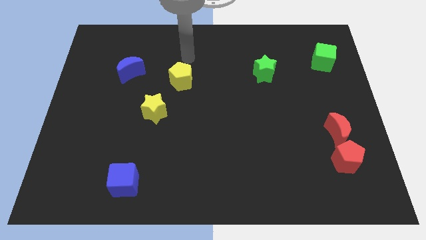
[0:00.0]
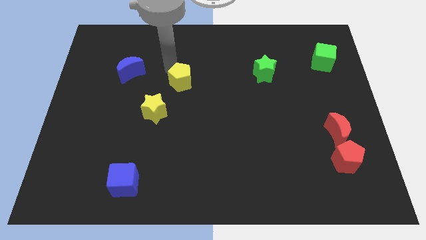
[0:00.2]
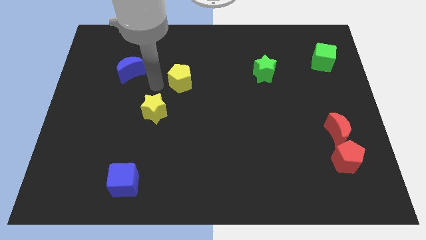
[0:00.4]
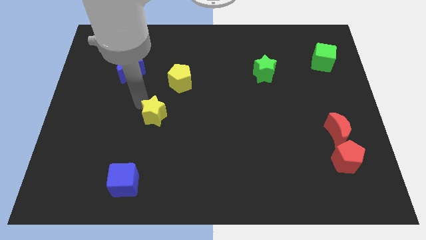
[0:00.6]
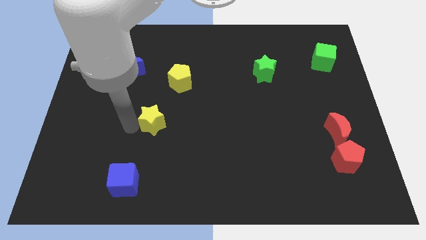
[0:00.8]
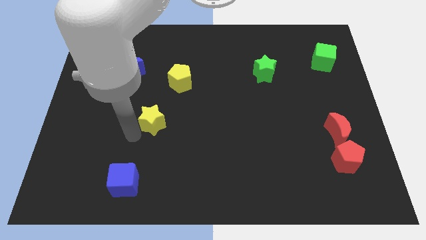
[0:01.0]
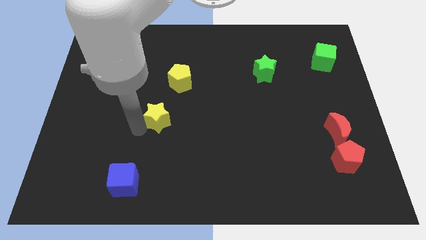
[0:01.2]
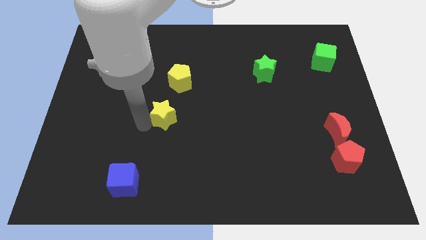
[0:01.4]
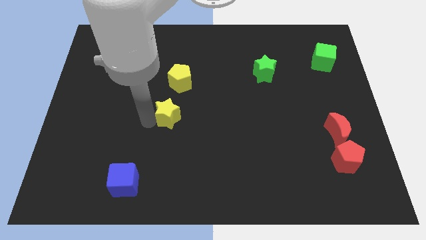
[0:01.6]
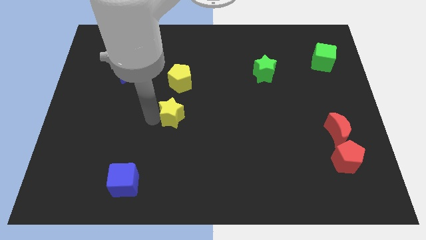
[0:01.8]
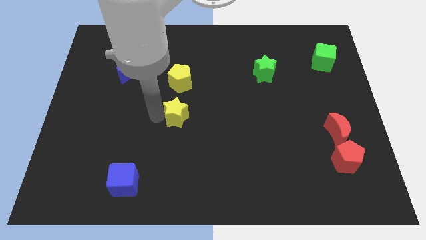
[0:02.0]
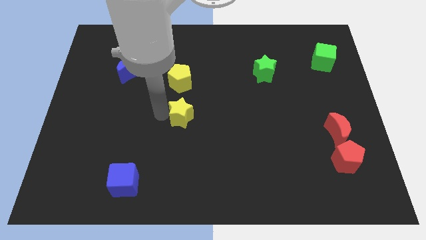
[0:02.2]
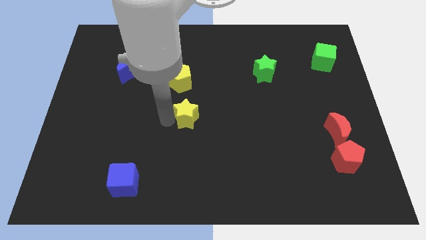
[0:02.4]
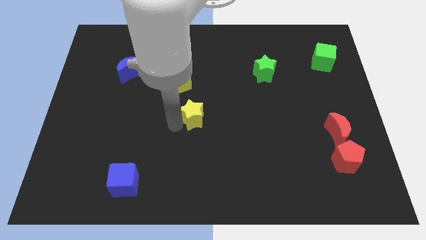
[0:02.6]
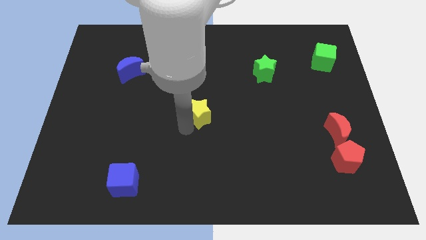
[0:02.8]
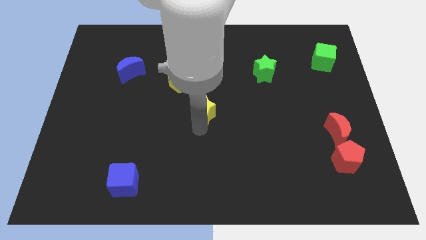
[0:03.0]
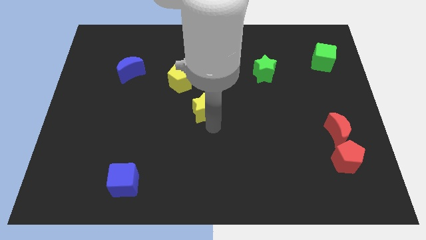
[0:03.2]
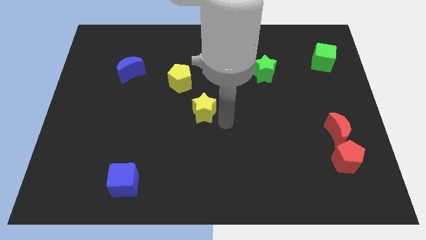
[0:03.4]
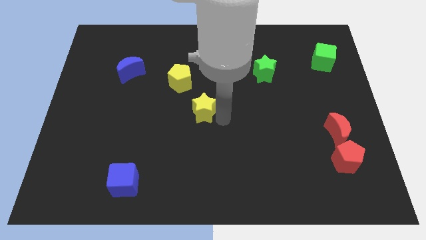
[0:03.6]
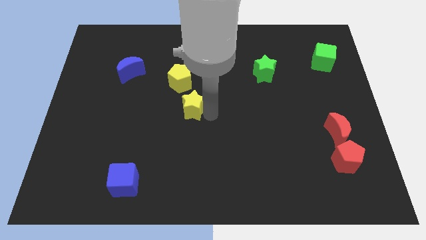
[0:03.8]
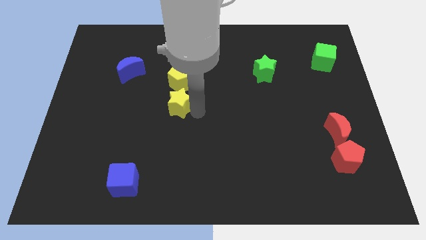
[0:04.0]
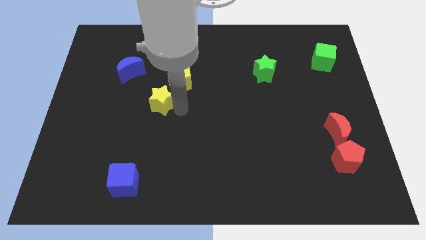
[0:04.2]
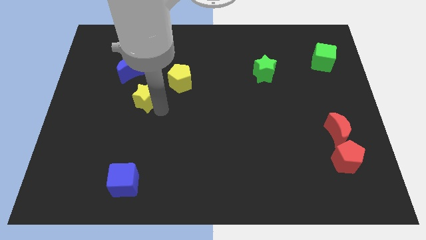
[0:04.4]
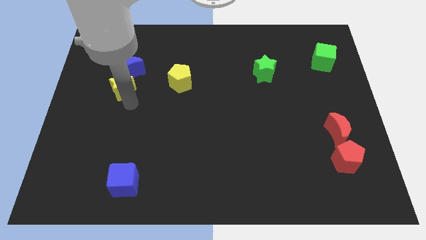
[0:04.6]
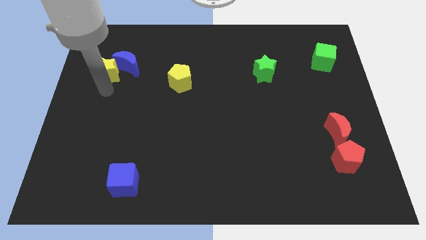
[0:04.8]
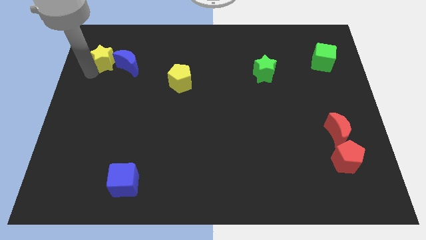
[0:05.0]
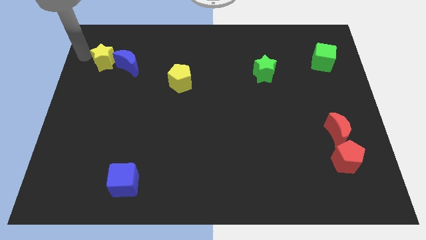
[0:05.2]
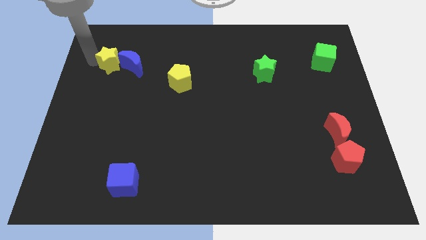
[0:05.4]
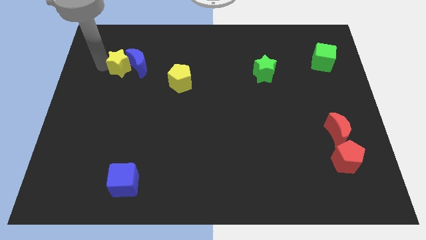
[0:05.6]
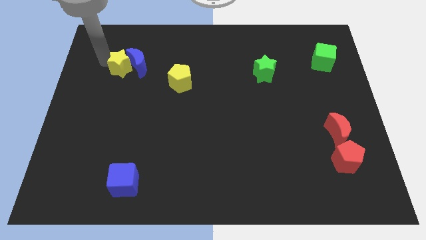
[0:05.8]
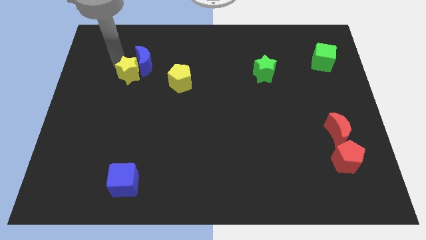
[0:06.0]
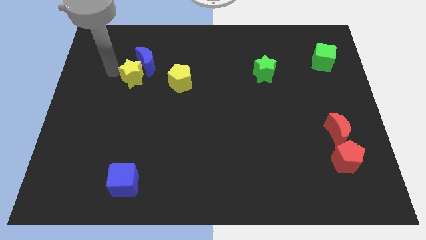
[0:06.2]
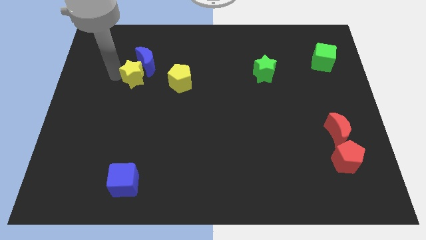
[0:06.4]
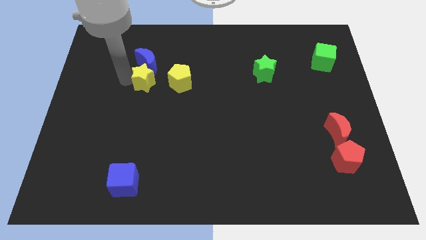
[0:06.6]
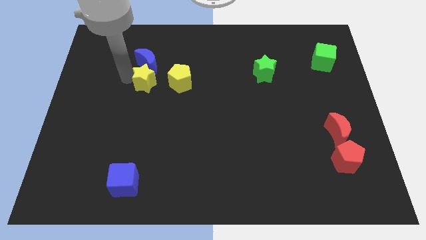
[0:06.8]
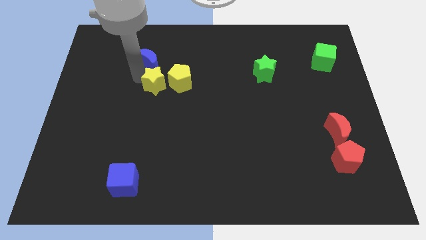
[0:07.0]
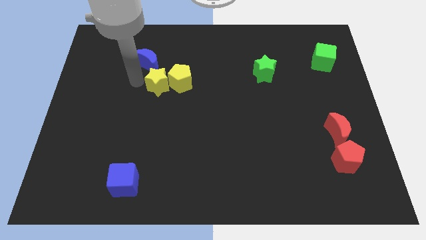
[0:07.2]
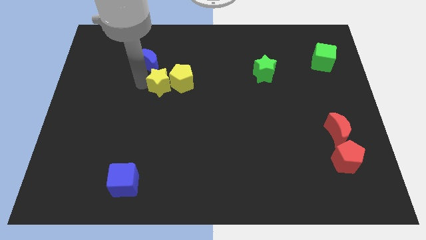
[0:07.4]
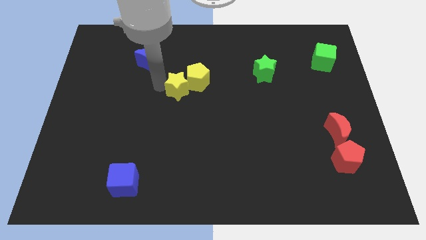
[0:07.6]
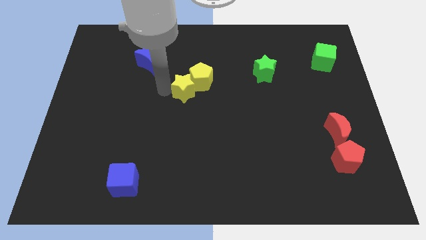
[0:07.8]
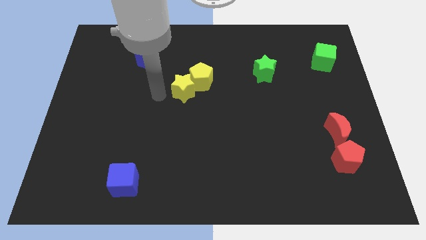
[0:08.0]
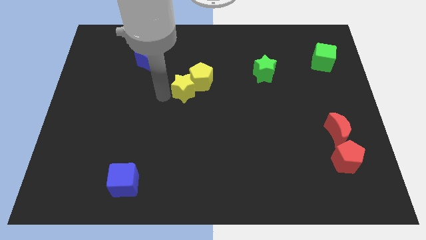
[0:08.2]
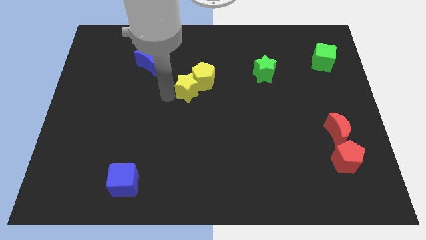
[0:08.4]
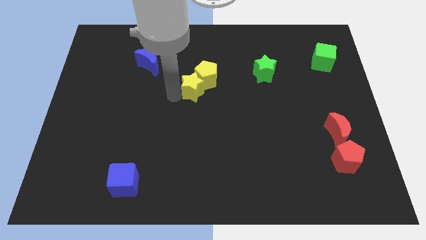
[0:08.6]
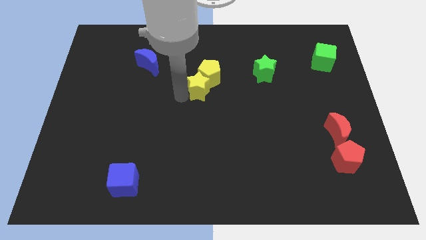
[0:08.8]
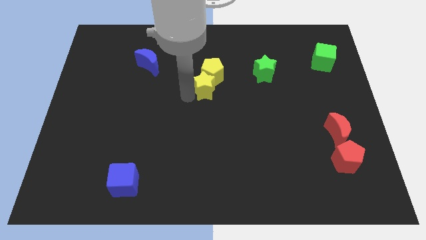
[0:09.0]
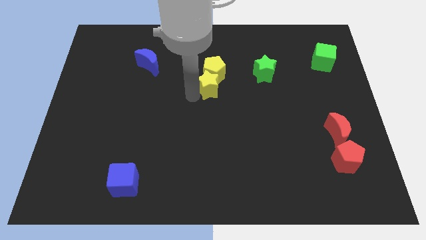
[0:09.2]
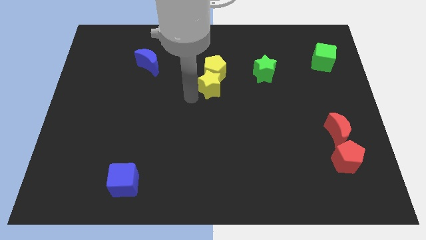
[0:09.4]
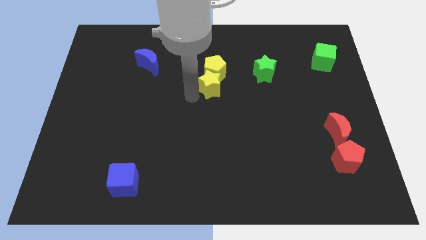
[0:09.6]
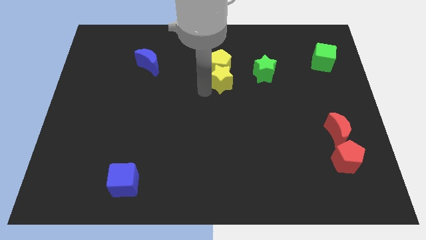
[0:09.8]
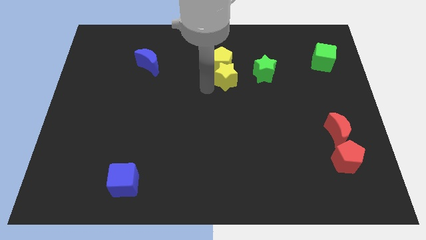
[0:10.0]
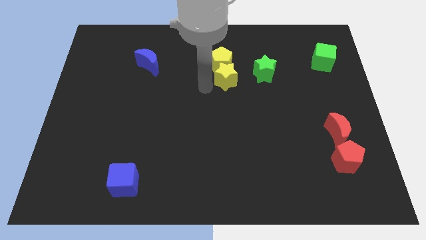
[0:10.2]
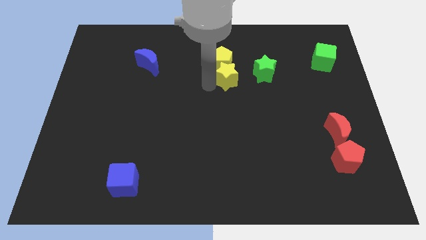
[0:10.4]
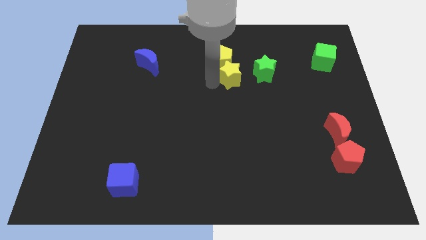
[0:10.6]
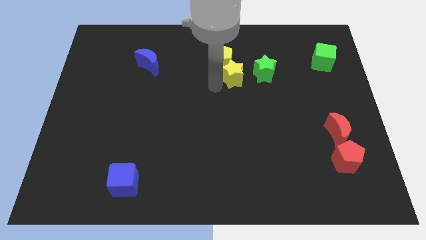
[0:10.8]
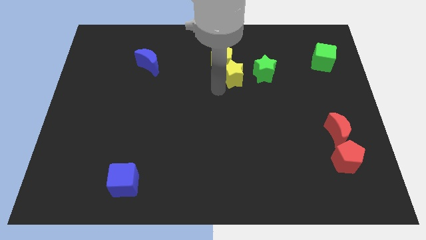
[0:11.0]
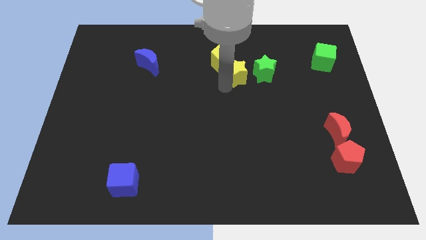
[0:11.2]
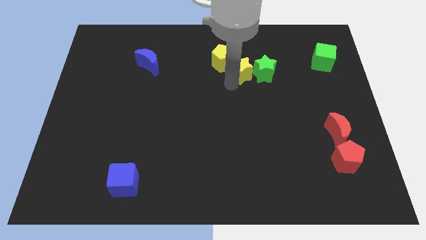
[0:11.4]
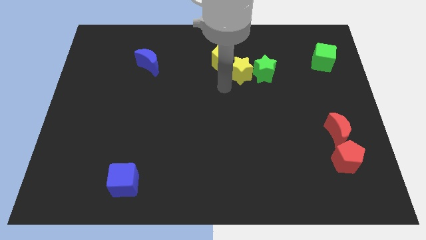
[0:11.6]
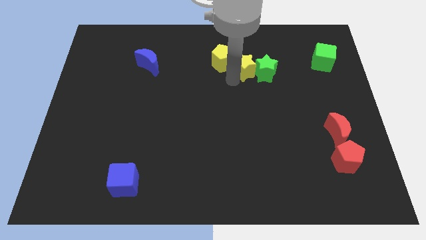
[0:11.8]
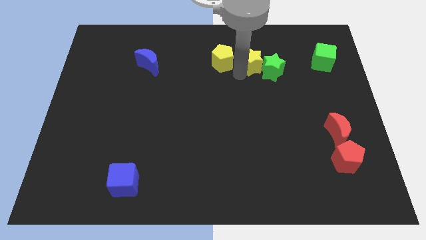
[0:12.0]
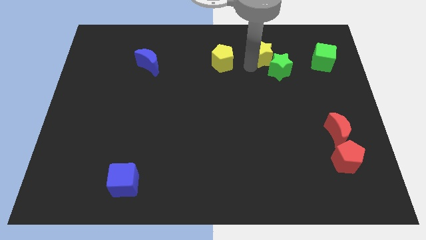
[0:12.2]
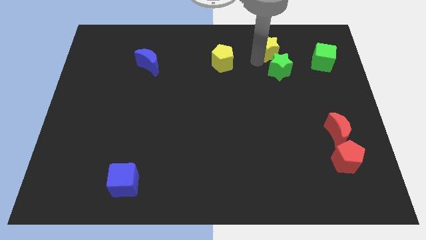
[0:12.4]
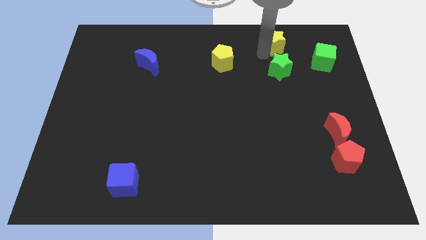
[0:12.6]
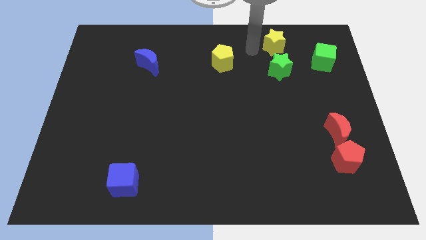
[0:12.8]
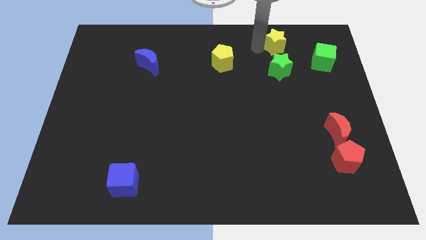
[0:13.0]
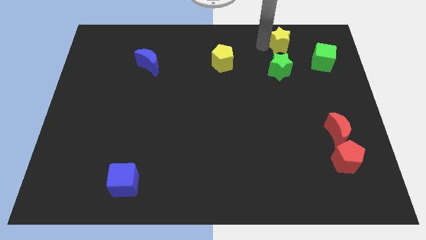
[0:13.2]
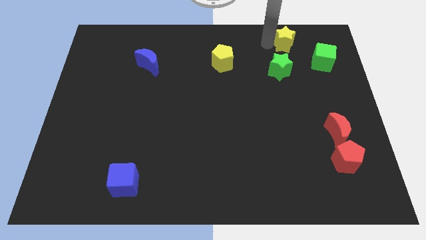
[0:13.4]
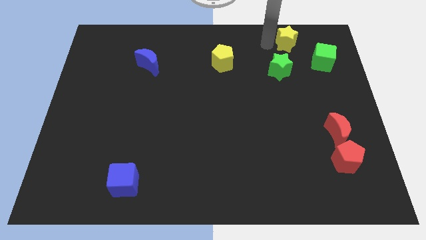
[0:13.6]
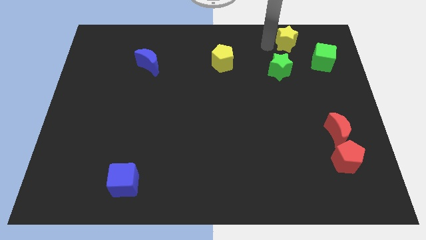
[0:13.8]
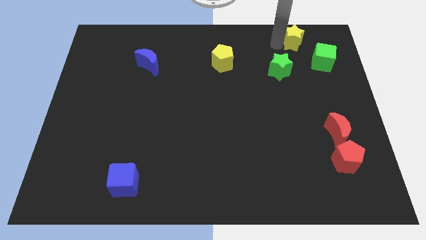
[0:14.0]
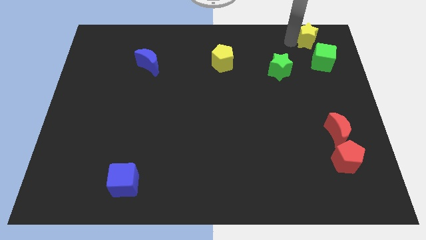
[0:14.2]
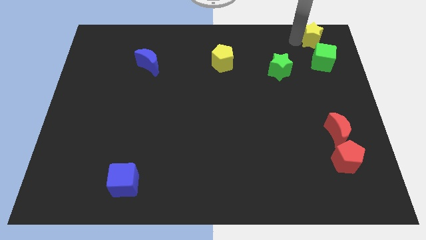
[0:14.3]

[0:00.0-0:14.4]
slide the yellow star to the top right corner
